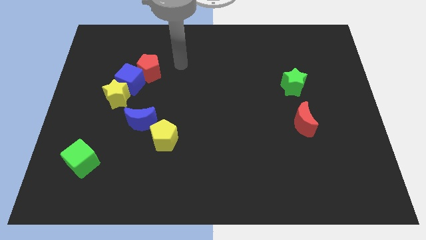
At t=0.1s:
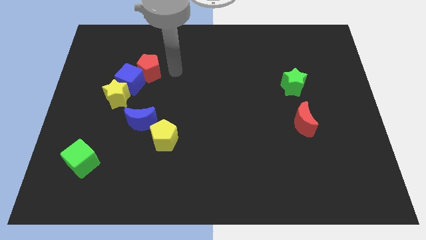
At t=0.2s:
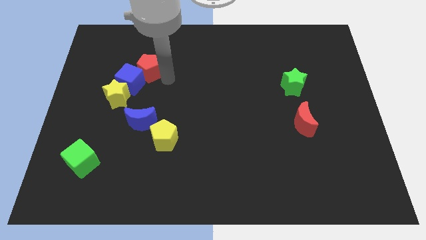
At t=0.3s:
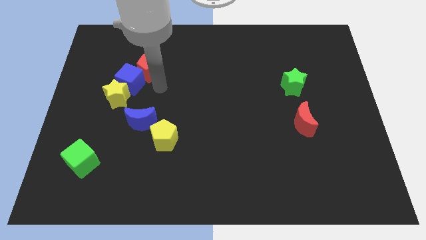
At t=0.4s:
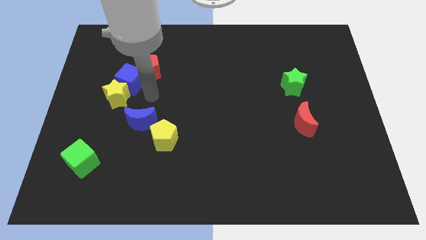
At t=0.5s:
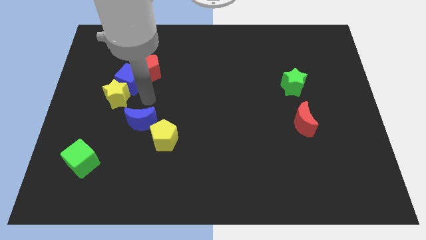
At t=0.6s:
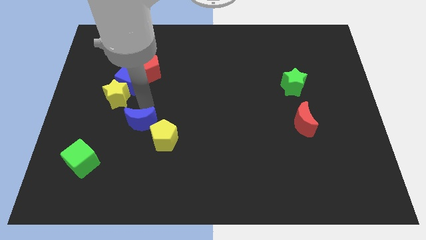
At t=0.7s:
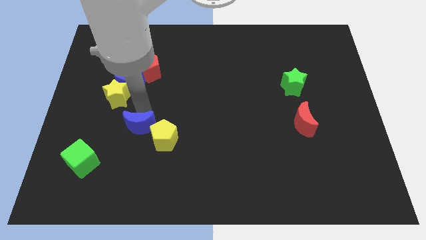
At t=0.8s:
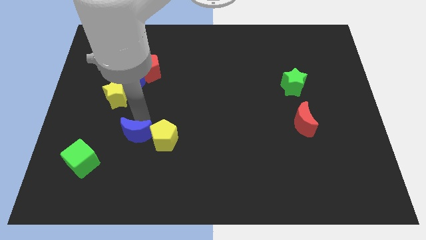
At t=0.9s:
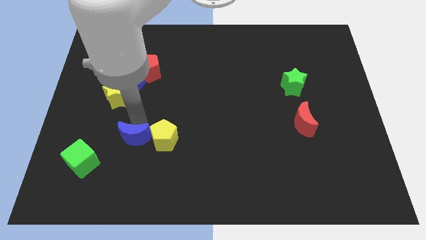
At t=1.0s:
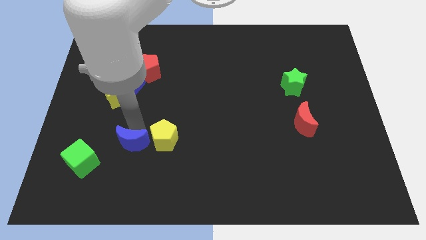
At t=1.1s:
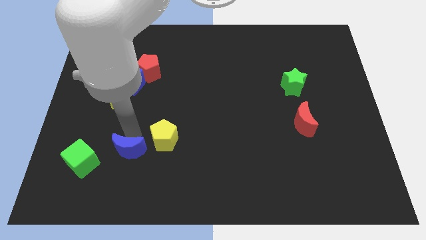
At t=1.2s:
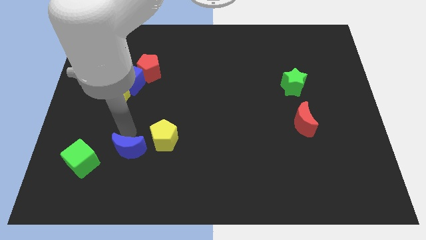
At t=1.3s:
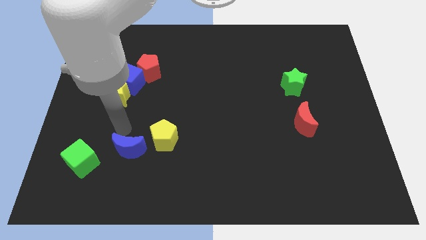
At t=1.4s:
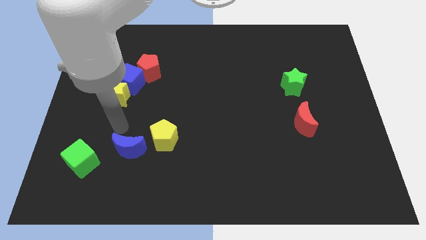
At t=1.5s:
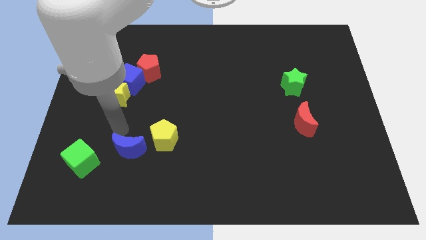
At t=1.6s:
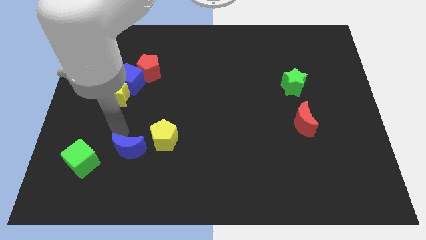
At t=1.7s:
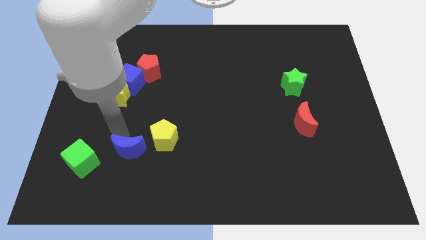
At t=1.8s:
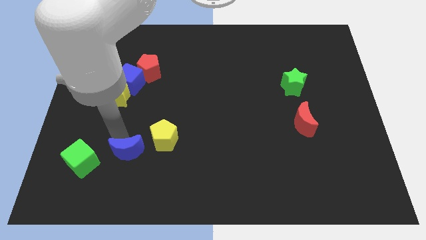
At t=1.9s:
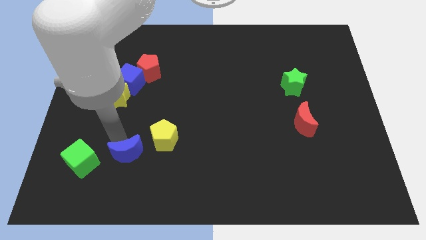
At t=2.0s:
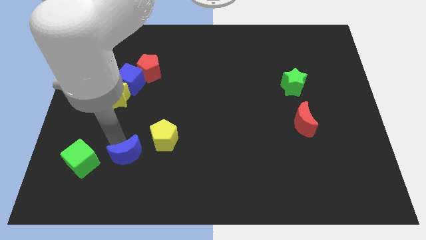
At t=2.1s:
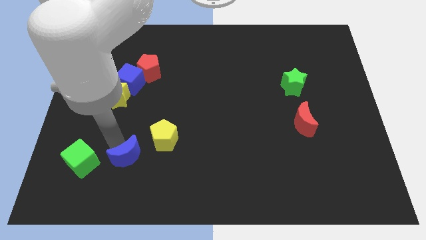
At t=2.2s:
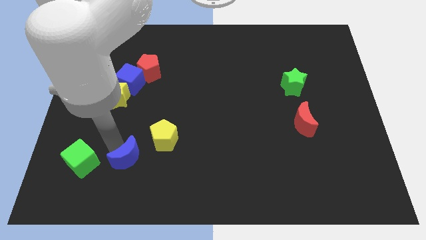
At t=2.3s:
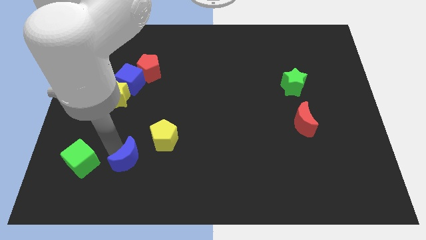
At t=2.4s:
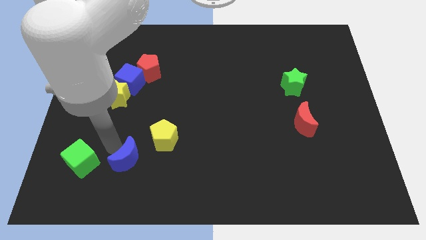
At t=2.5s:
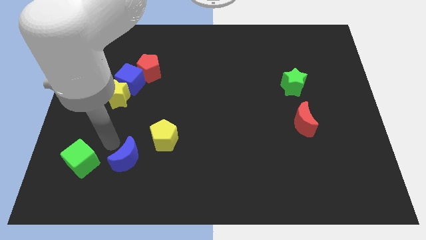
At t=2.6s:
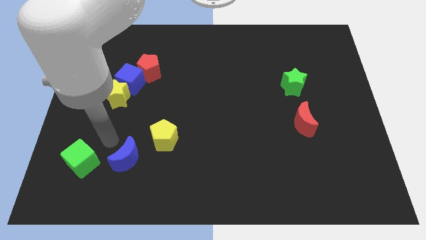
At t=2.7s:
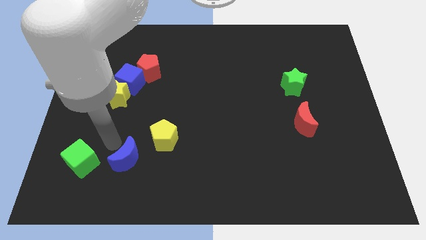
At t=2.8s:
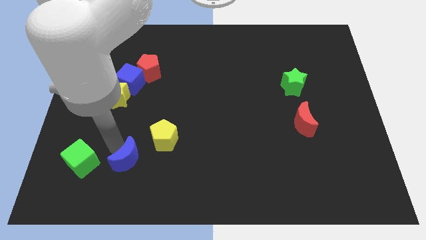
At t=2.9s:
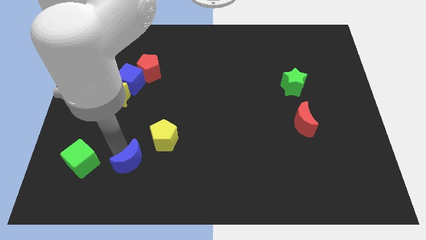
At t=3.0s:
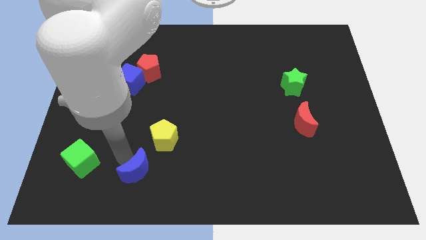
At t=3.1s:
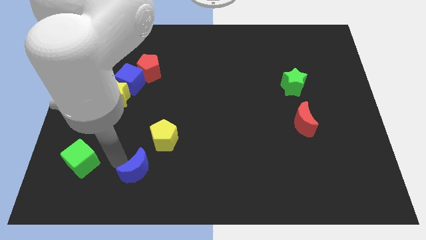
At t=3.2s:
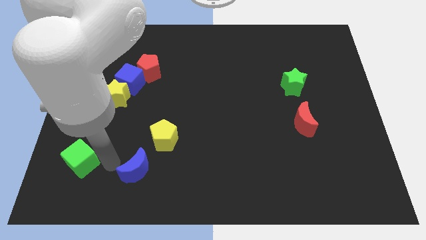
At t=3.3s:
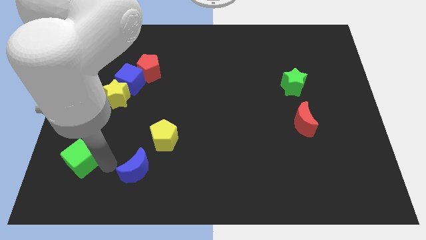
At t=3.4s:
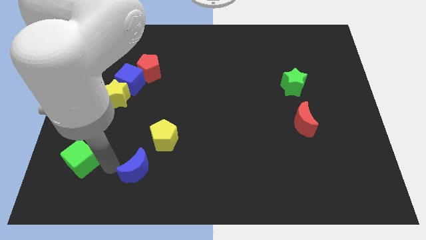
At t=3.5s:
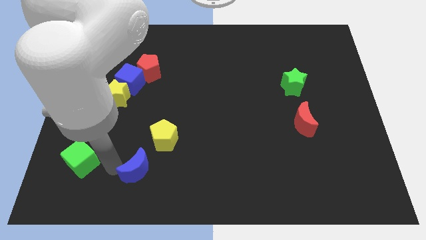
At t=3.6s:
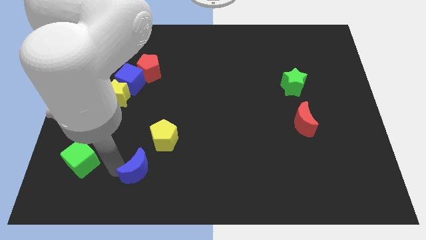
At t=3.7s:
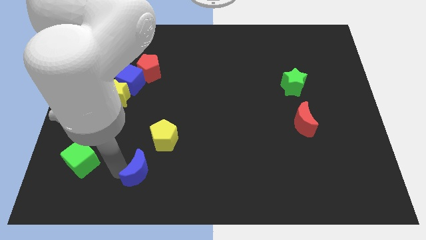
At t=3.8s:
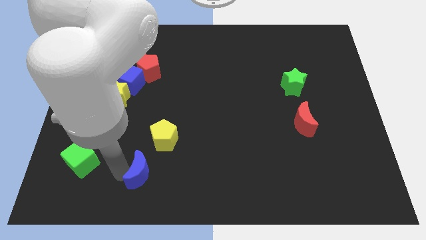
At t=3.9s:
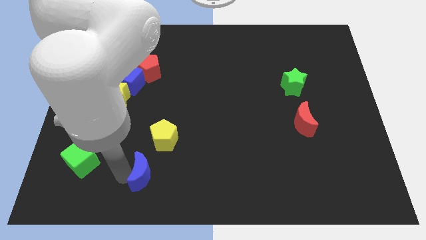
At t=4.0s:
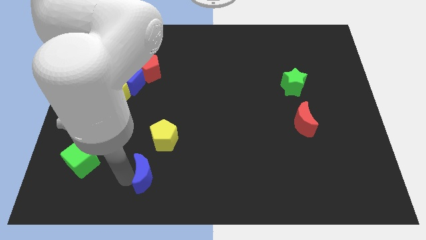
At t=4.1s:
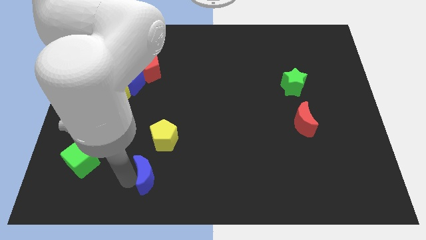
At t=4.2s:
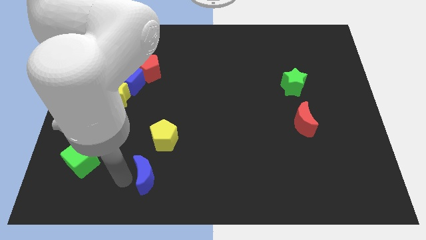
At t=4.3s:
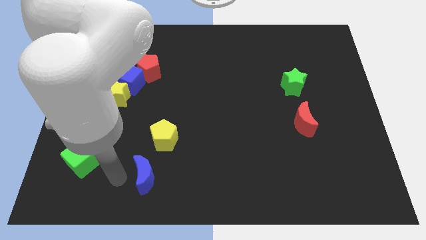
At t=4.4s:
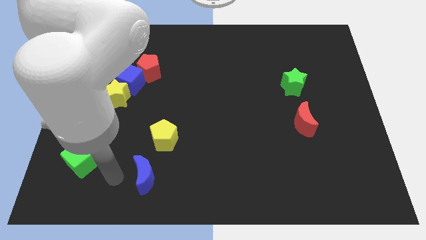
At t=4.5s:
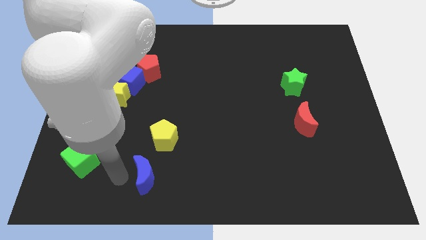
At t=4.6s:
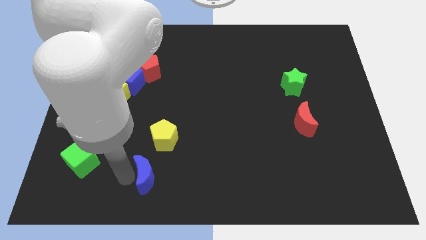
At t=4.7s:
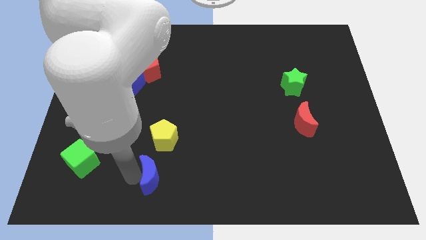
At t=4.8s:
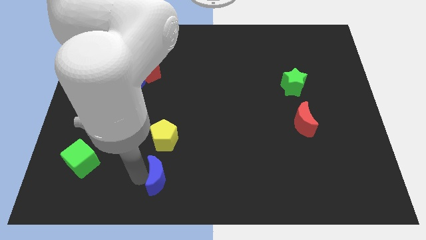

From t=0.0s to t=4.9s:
slide the blue moon to the bottom side

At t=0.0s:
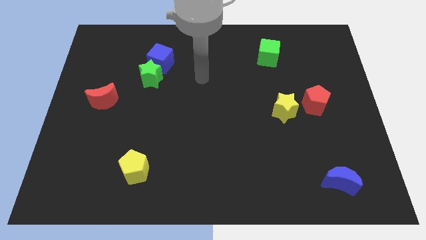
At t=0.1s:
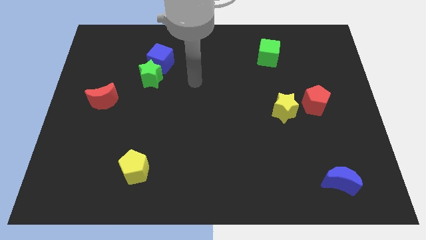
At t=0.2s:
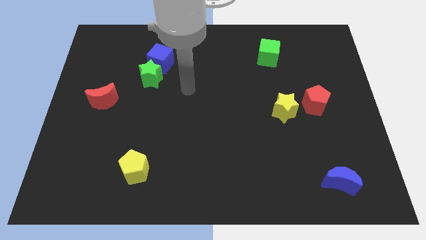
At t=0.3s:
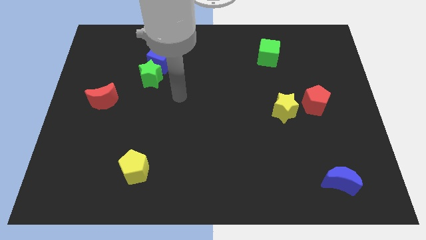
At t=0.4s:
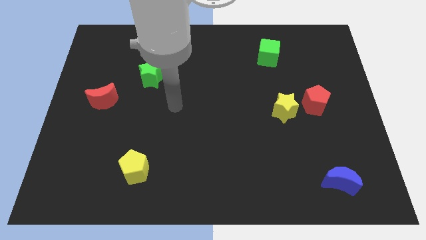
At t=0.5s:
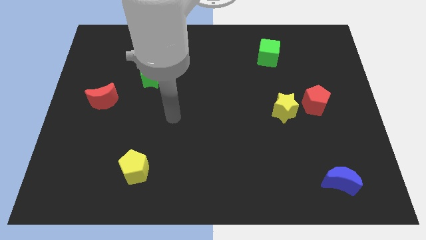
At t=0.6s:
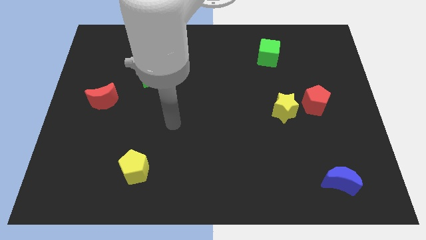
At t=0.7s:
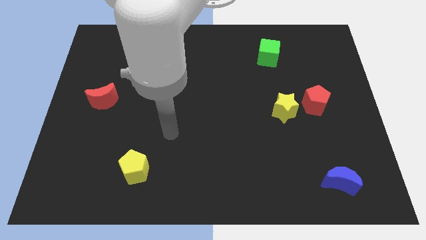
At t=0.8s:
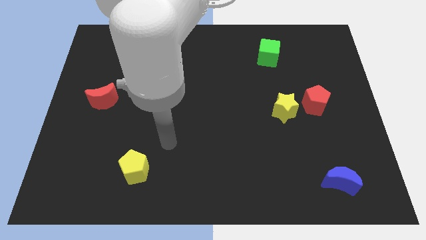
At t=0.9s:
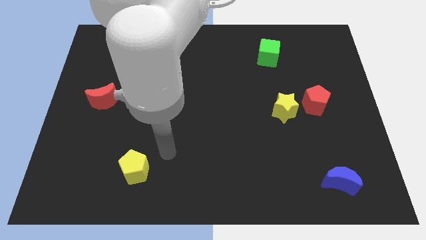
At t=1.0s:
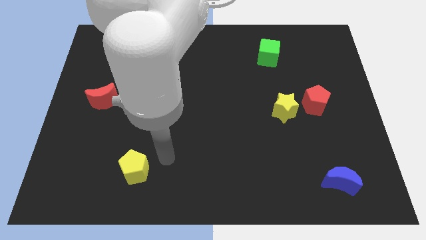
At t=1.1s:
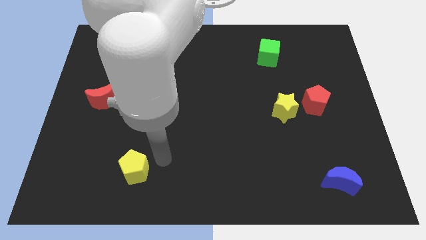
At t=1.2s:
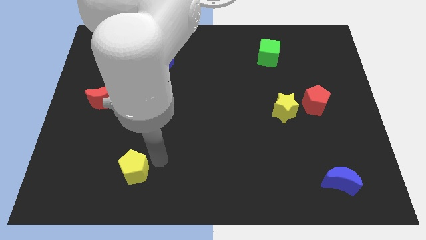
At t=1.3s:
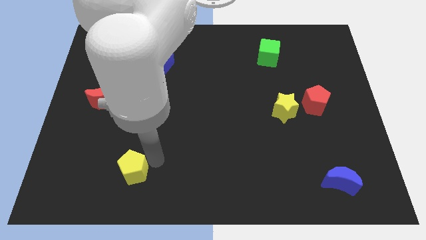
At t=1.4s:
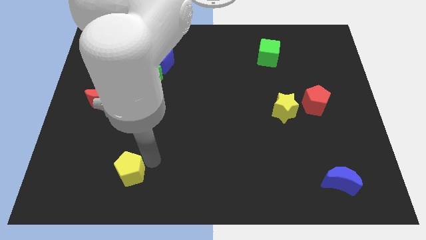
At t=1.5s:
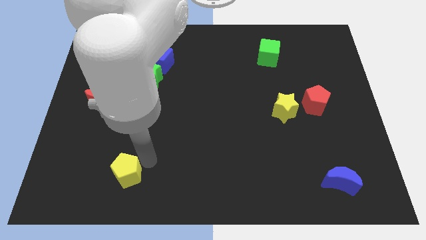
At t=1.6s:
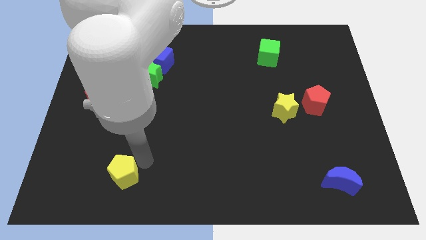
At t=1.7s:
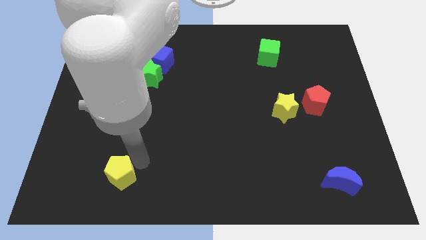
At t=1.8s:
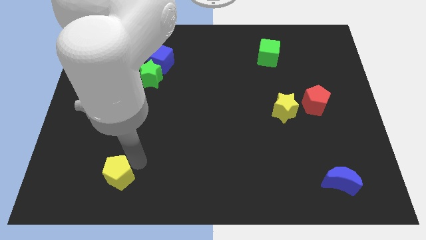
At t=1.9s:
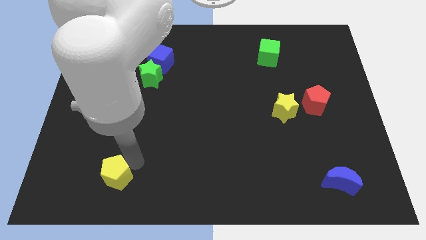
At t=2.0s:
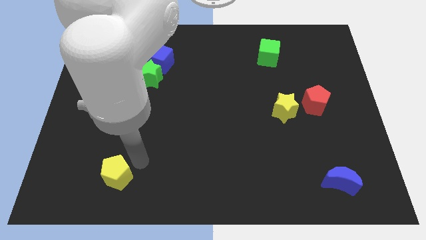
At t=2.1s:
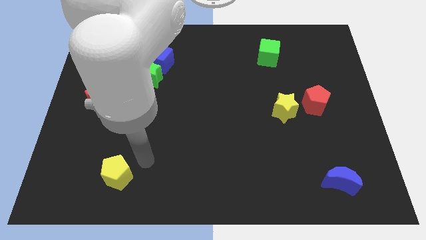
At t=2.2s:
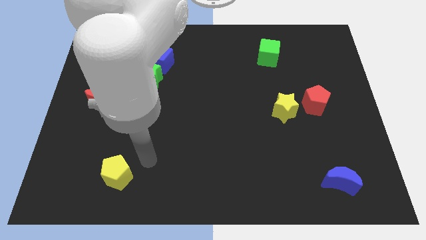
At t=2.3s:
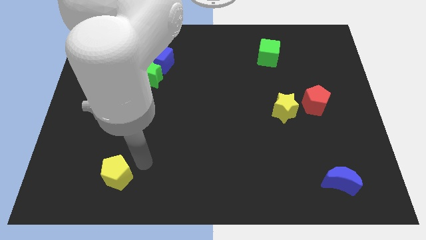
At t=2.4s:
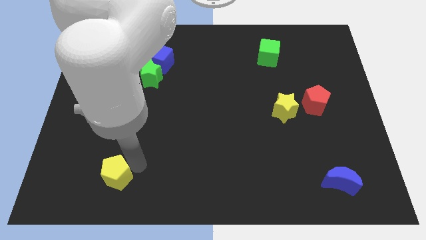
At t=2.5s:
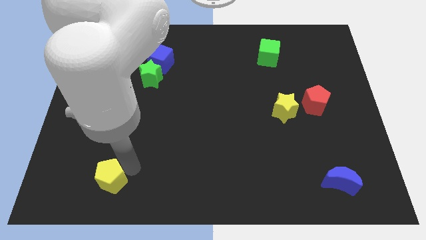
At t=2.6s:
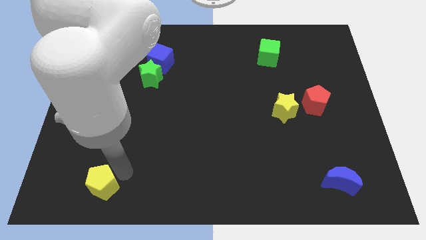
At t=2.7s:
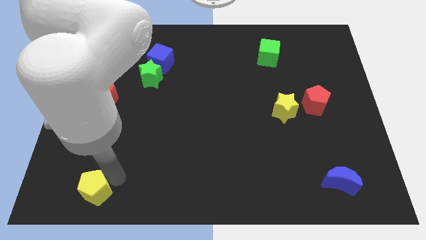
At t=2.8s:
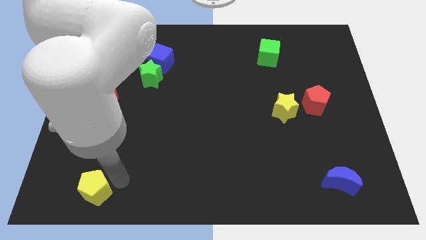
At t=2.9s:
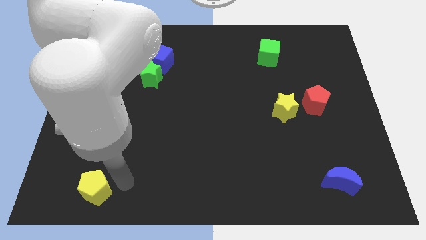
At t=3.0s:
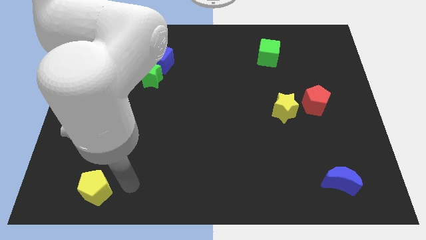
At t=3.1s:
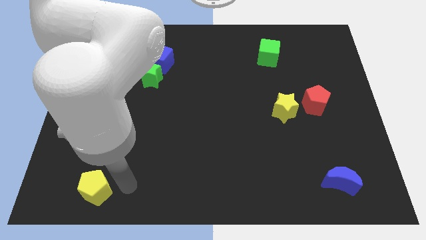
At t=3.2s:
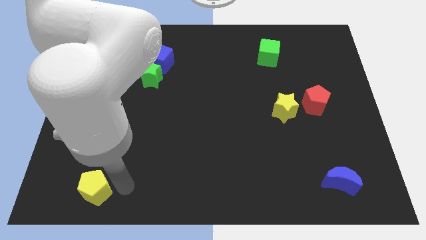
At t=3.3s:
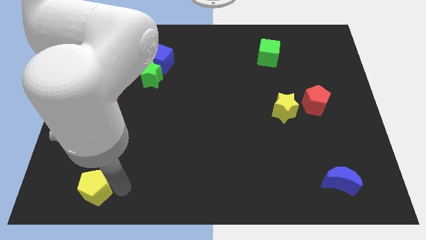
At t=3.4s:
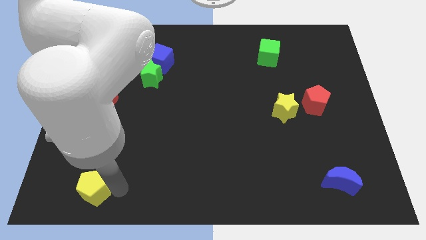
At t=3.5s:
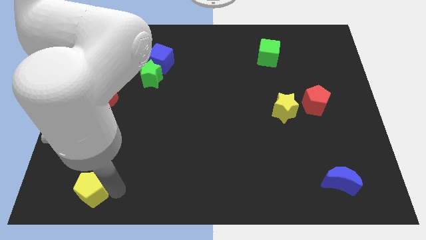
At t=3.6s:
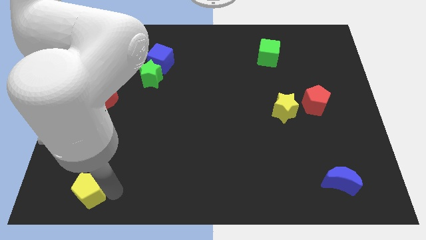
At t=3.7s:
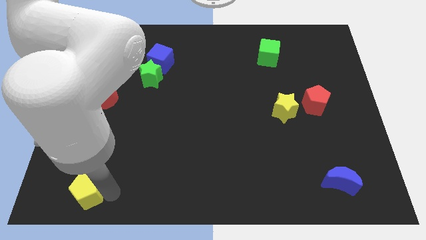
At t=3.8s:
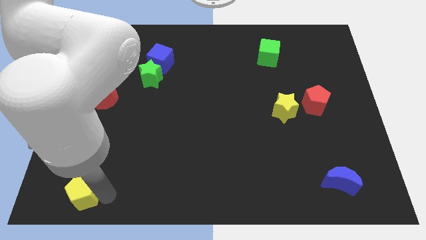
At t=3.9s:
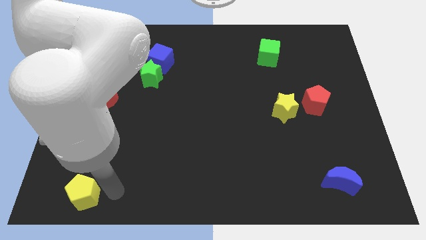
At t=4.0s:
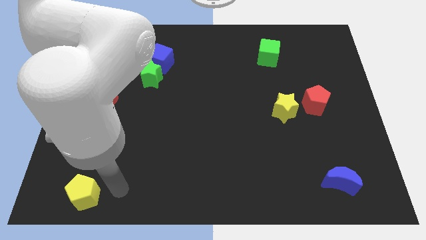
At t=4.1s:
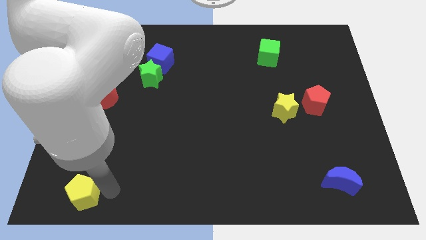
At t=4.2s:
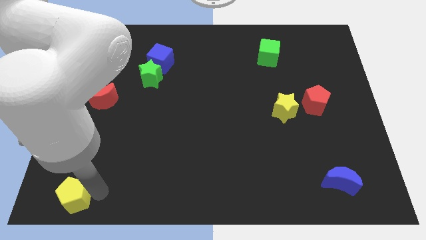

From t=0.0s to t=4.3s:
slide the yellow pentagon to the bottom left of the board
